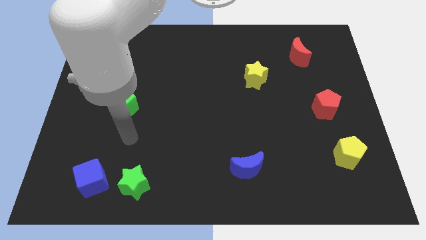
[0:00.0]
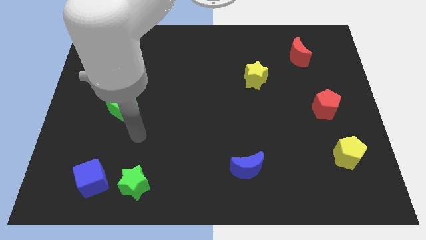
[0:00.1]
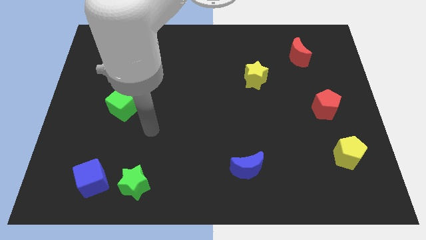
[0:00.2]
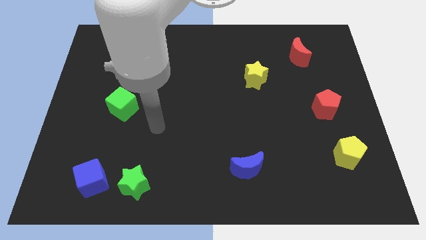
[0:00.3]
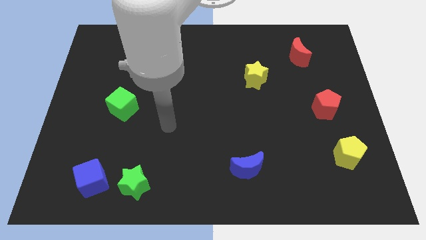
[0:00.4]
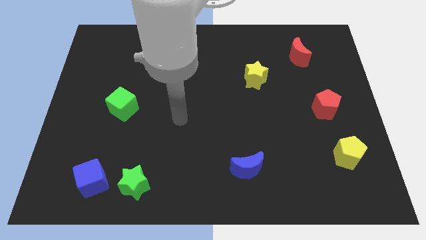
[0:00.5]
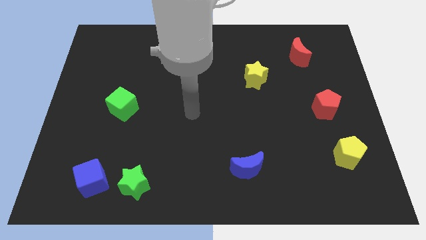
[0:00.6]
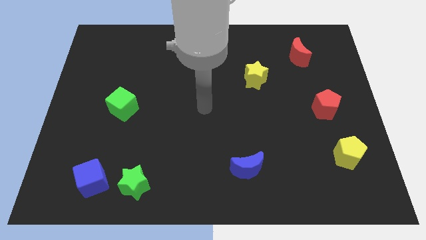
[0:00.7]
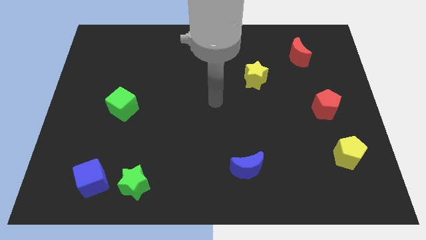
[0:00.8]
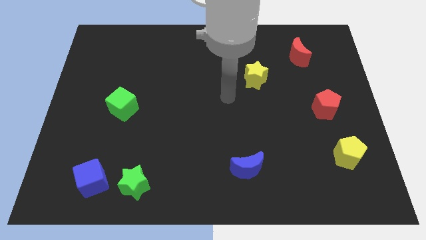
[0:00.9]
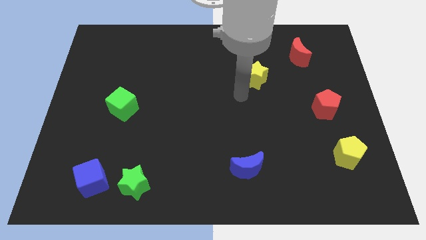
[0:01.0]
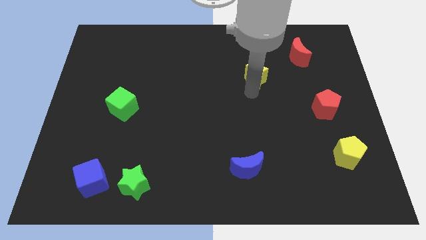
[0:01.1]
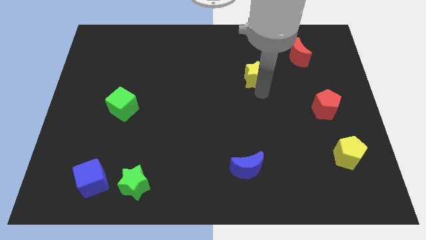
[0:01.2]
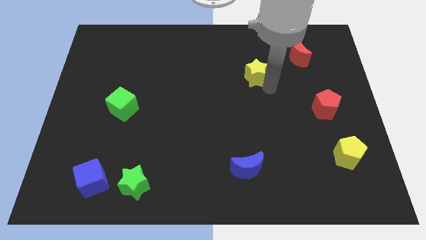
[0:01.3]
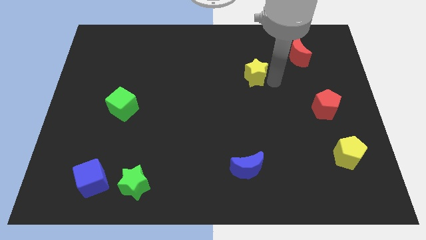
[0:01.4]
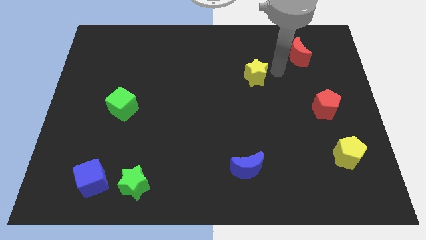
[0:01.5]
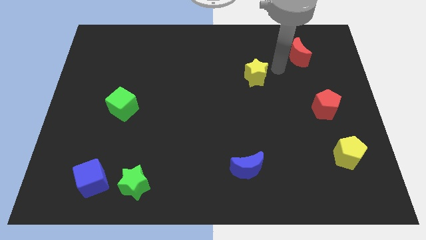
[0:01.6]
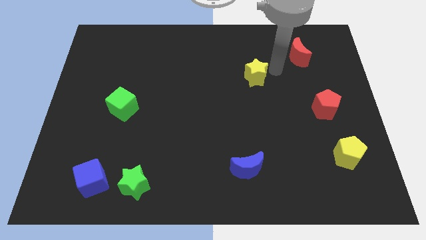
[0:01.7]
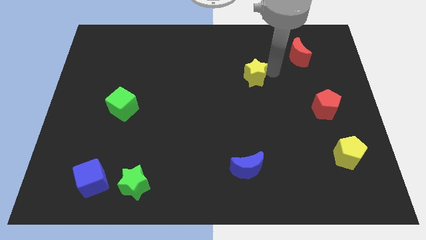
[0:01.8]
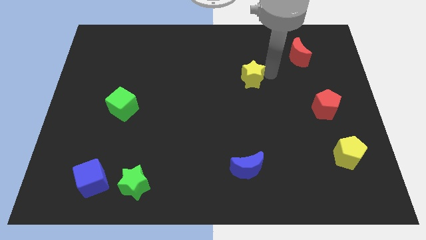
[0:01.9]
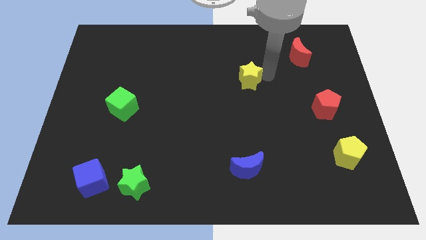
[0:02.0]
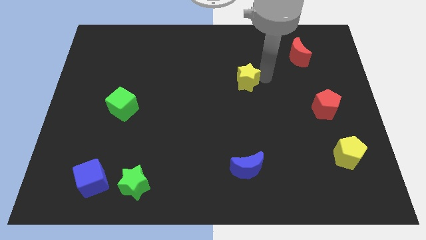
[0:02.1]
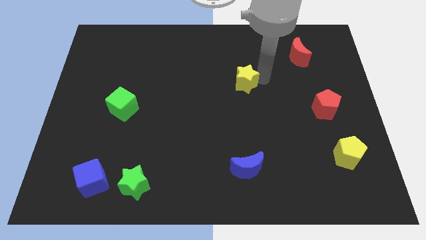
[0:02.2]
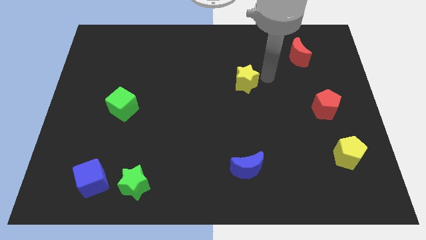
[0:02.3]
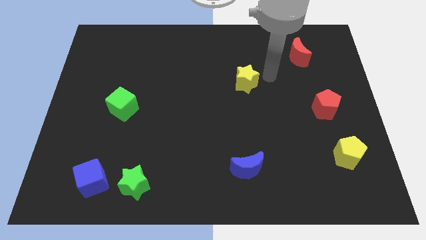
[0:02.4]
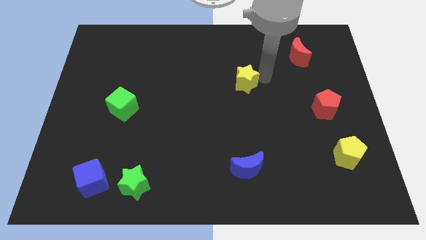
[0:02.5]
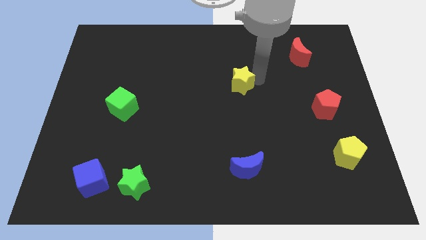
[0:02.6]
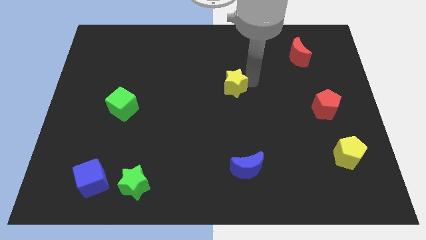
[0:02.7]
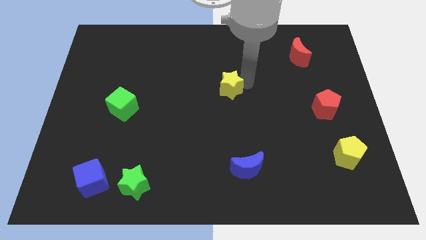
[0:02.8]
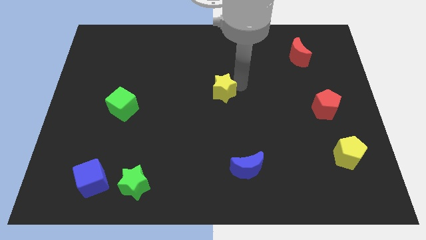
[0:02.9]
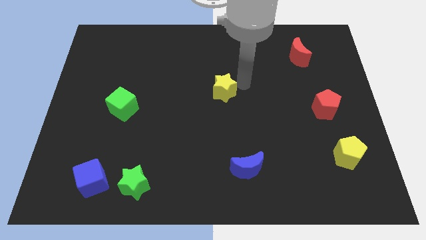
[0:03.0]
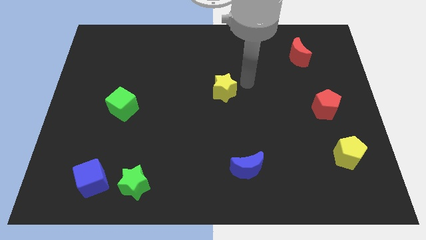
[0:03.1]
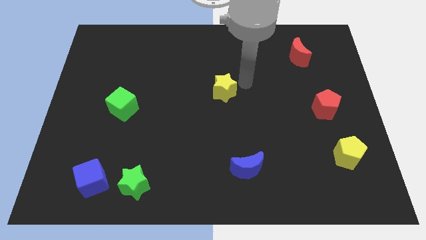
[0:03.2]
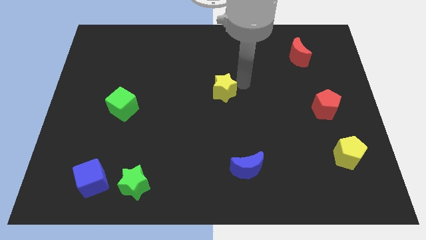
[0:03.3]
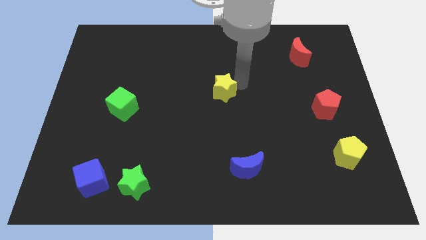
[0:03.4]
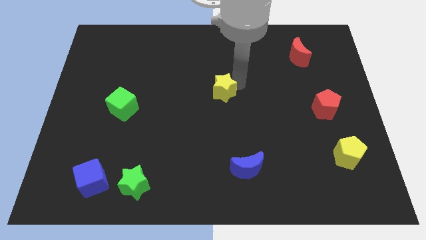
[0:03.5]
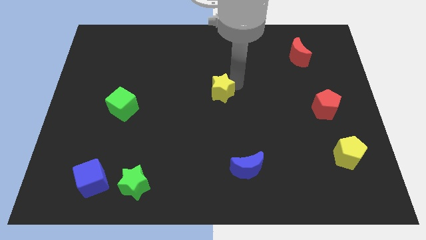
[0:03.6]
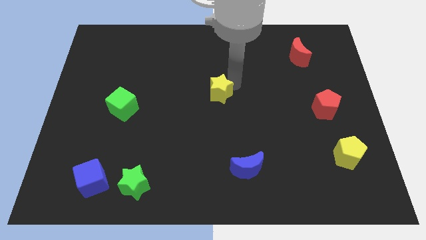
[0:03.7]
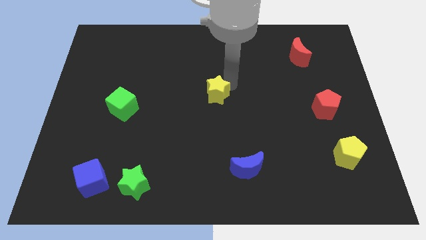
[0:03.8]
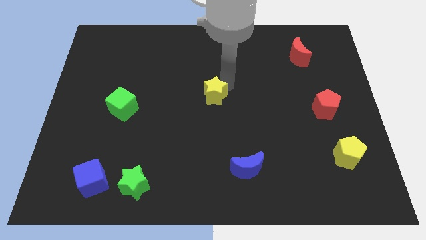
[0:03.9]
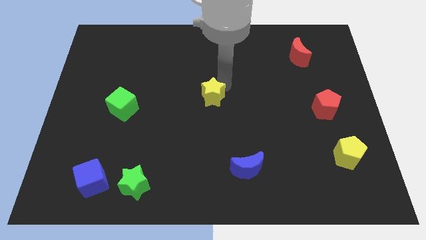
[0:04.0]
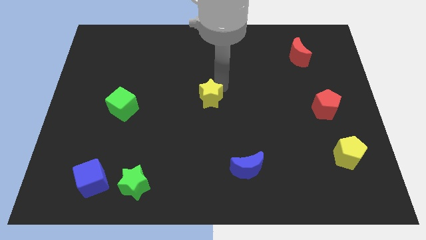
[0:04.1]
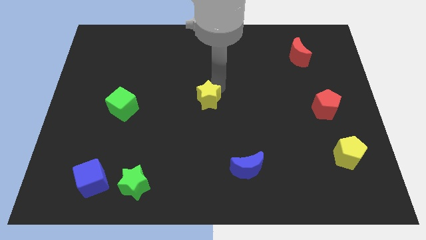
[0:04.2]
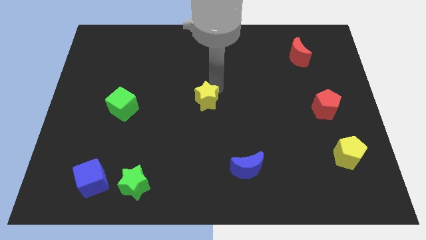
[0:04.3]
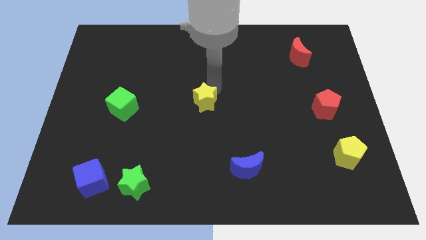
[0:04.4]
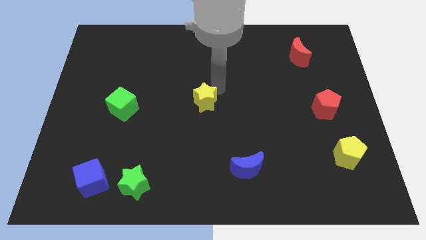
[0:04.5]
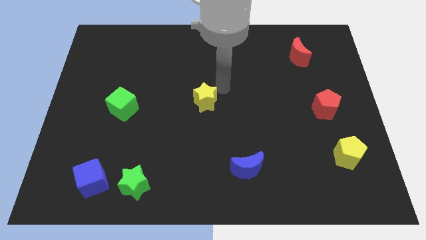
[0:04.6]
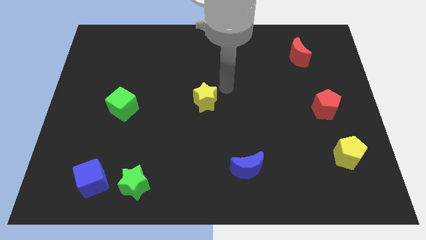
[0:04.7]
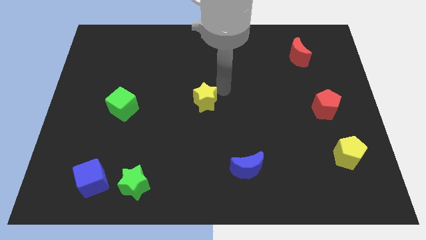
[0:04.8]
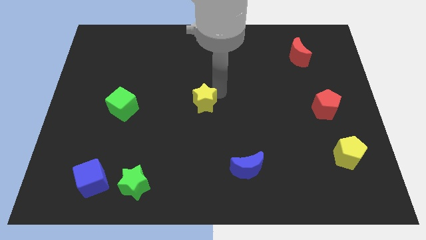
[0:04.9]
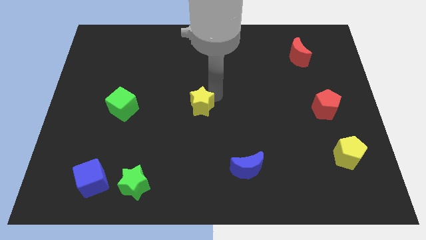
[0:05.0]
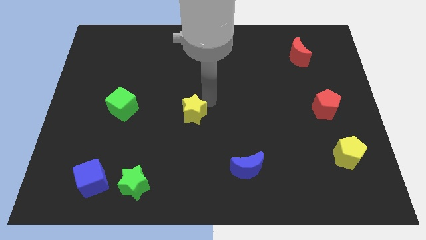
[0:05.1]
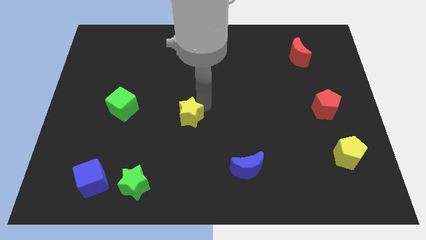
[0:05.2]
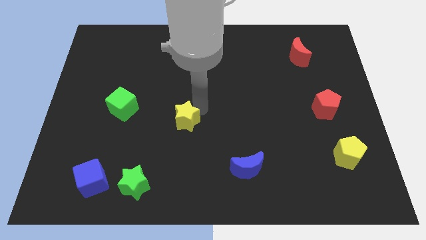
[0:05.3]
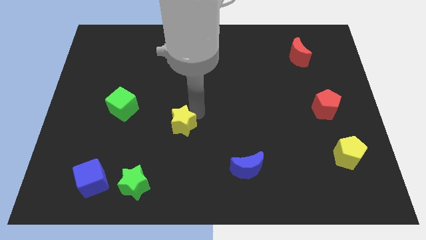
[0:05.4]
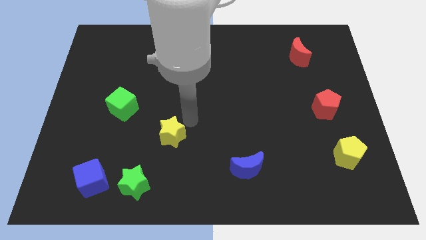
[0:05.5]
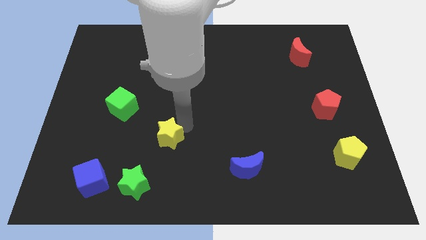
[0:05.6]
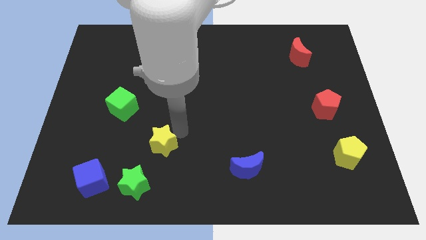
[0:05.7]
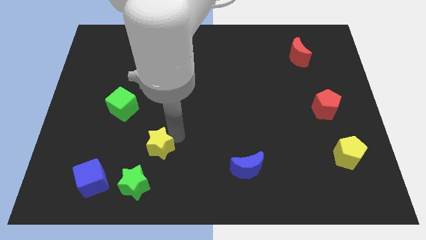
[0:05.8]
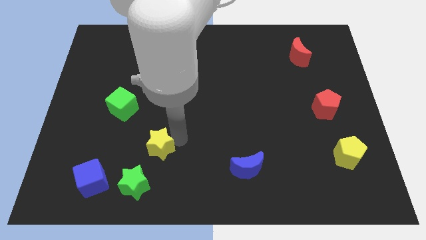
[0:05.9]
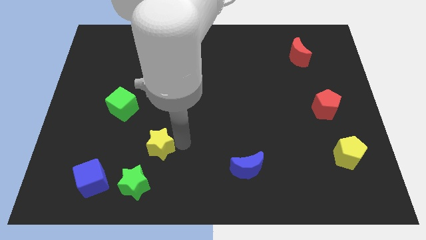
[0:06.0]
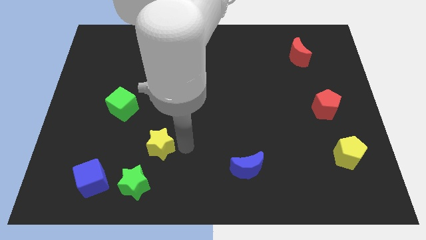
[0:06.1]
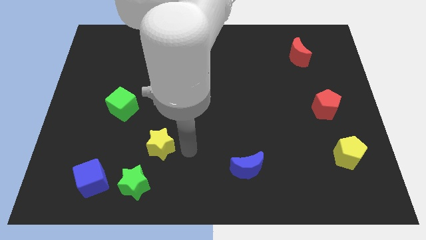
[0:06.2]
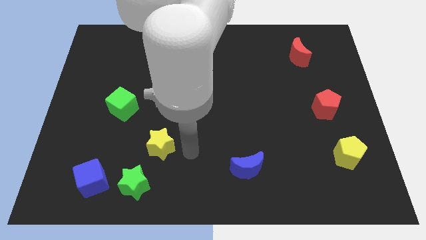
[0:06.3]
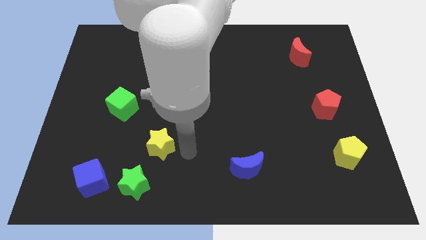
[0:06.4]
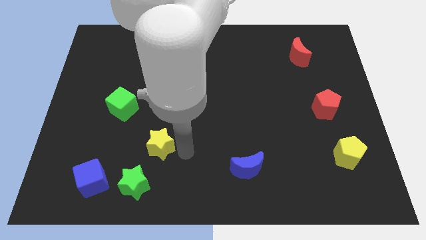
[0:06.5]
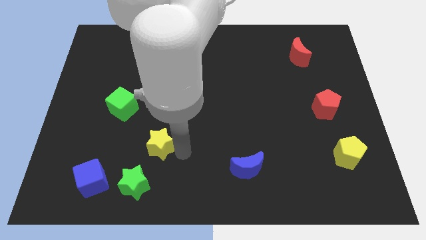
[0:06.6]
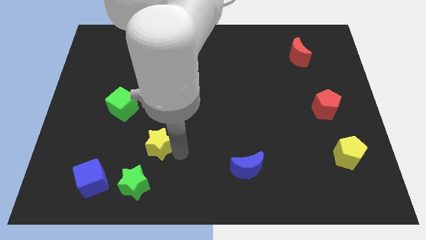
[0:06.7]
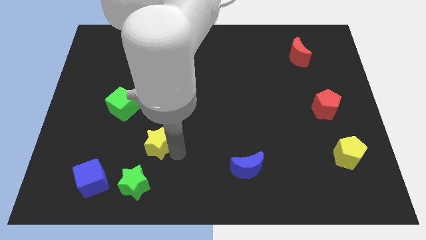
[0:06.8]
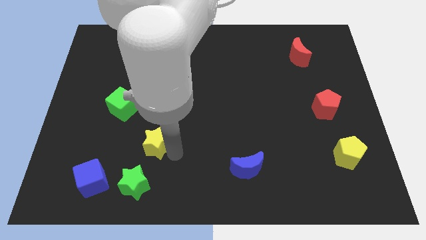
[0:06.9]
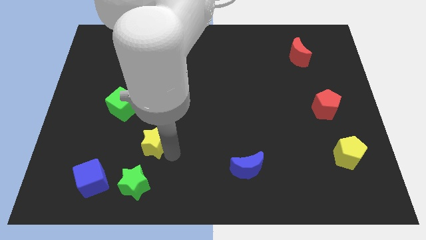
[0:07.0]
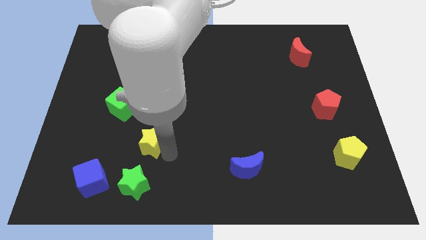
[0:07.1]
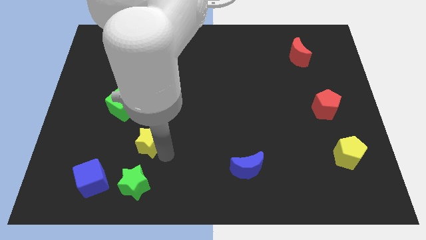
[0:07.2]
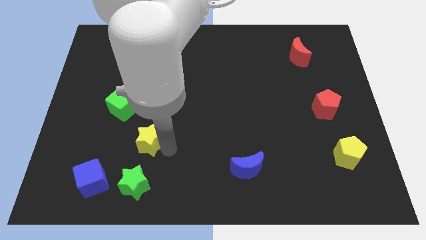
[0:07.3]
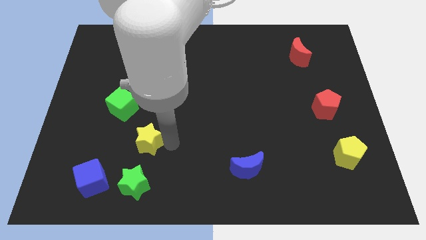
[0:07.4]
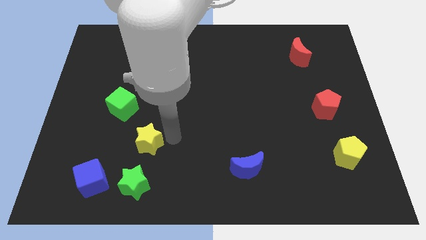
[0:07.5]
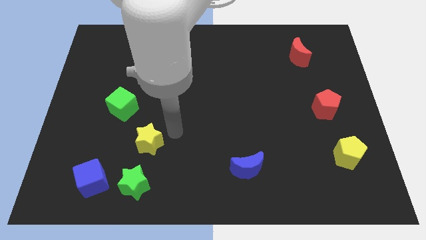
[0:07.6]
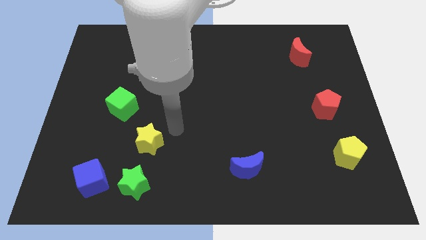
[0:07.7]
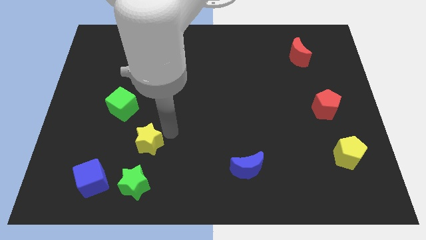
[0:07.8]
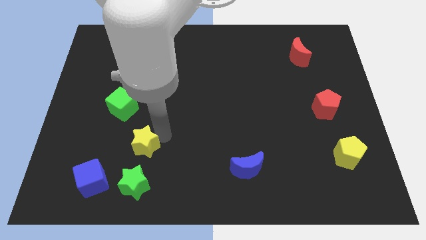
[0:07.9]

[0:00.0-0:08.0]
slide the yellow star to the top right of the blue cube
